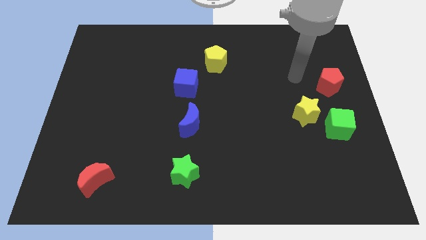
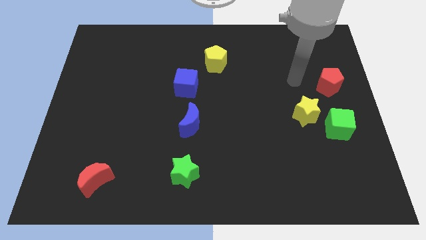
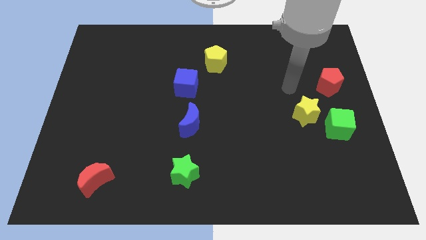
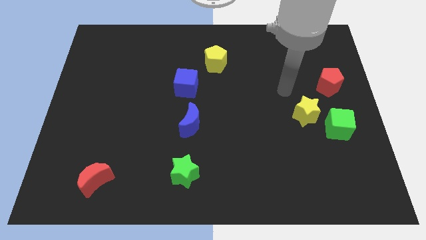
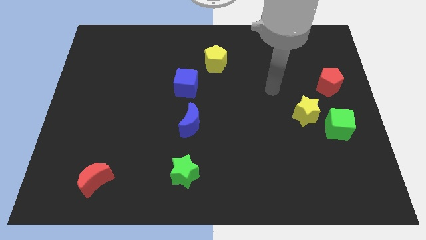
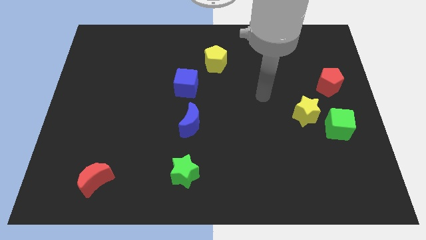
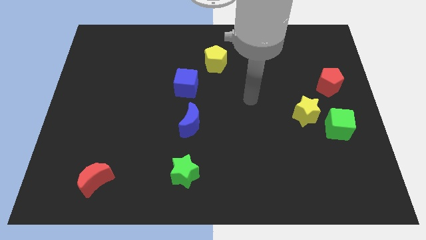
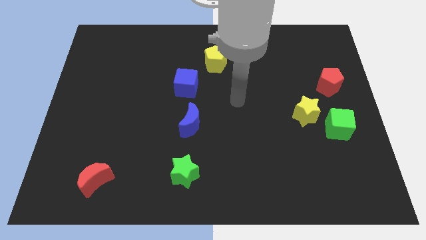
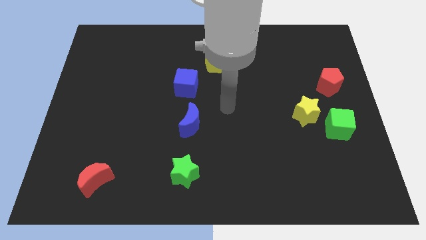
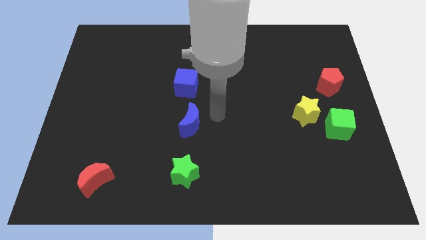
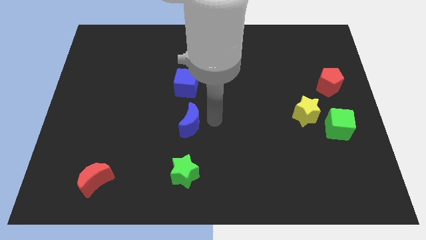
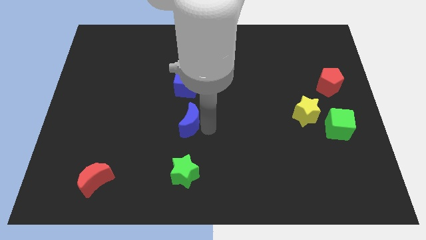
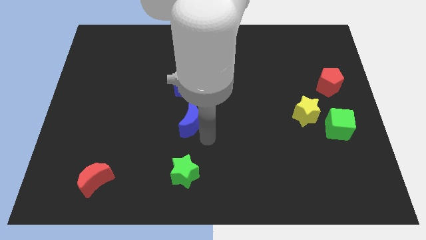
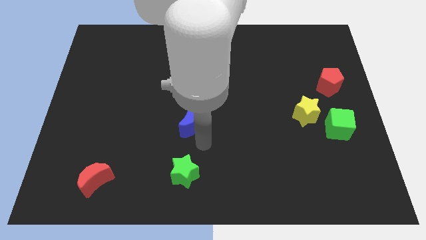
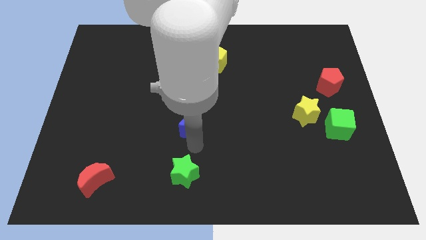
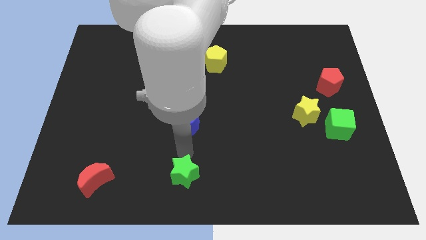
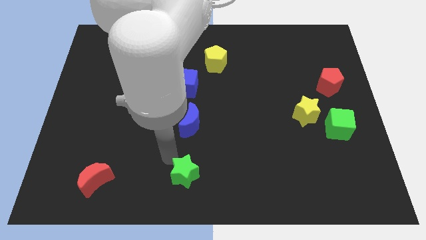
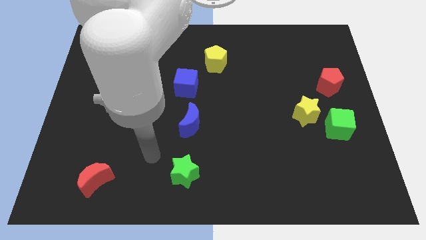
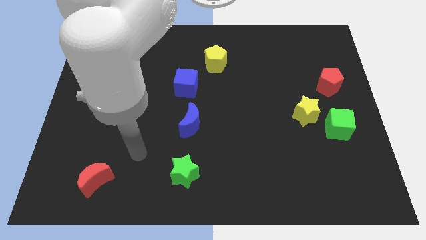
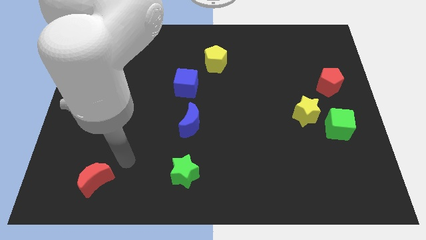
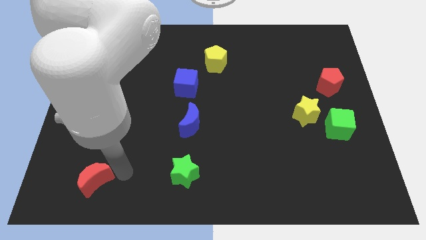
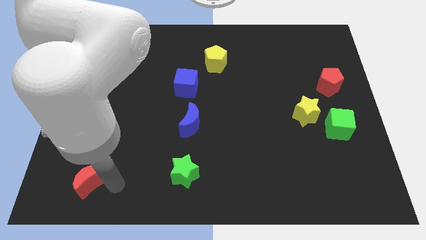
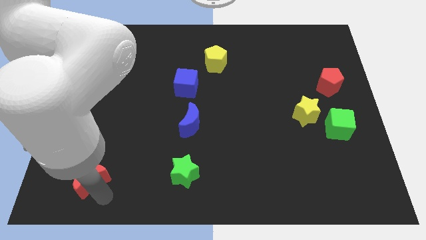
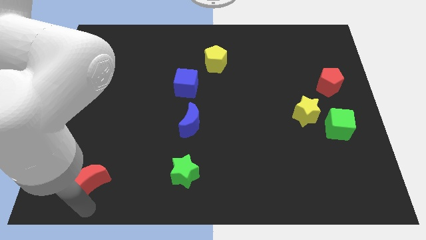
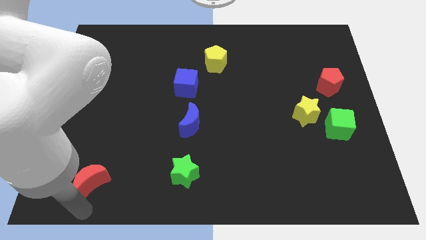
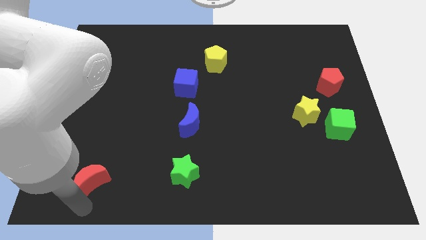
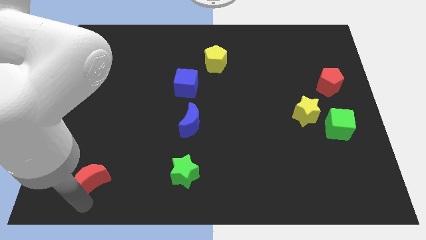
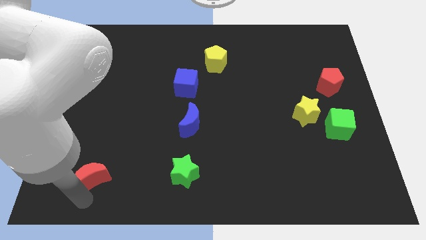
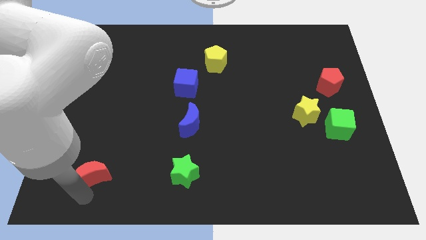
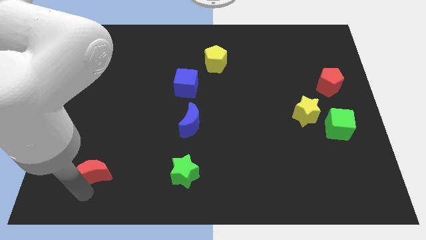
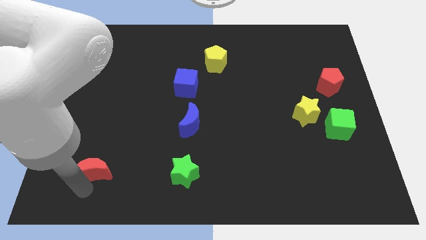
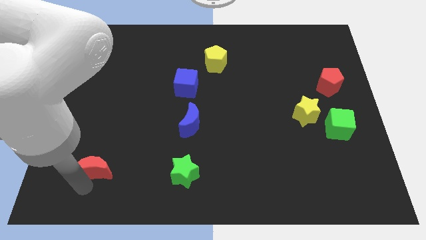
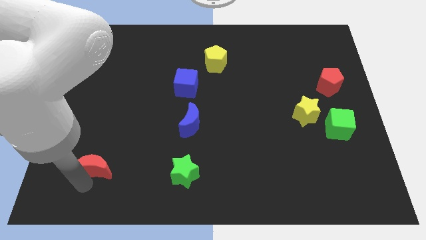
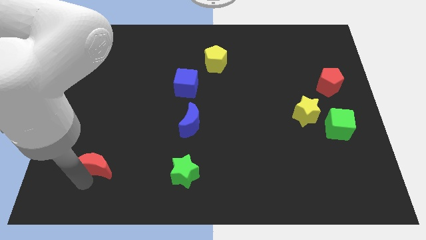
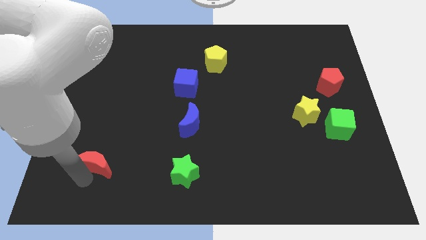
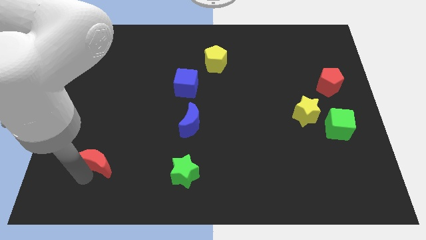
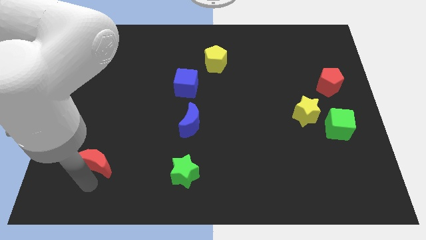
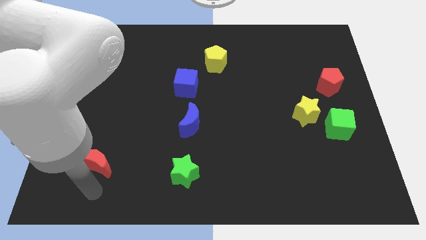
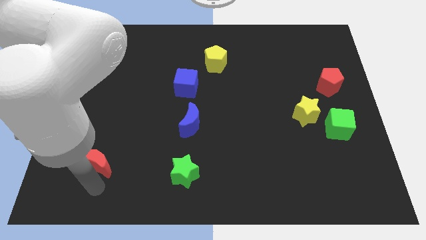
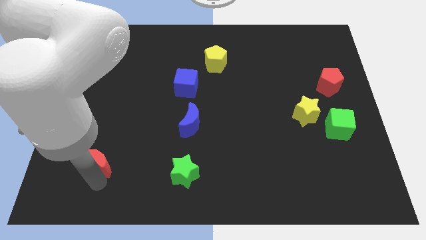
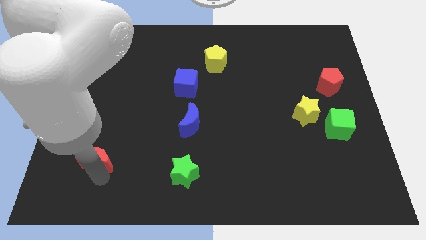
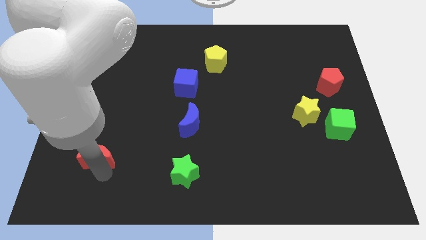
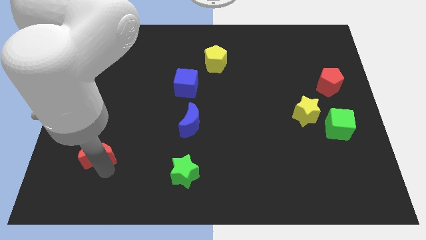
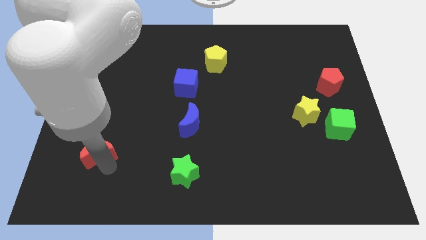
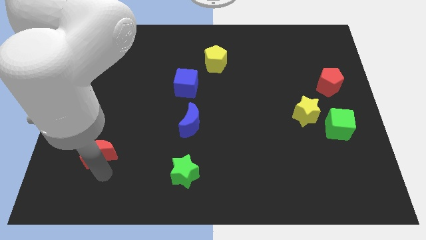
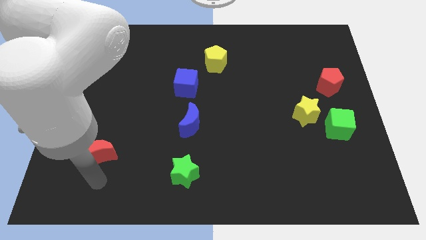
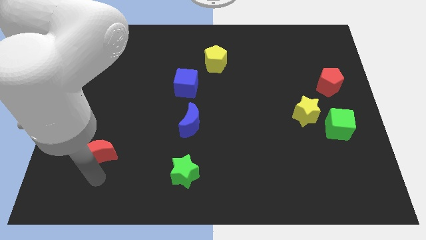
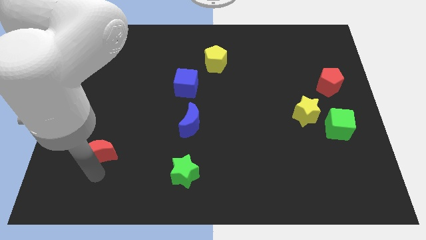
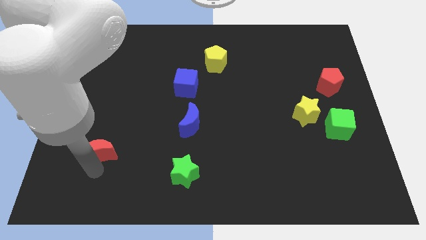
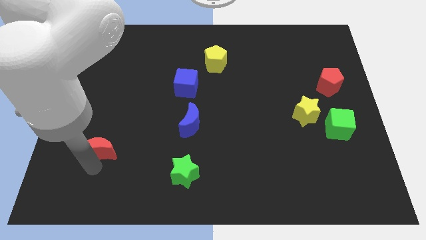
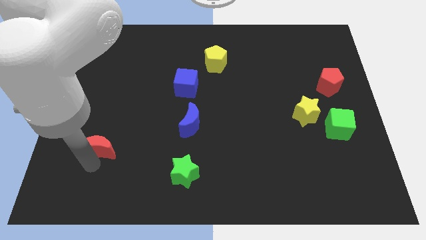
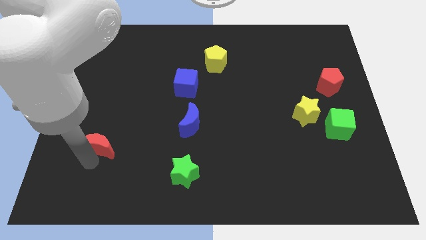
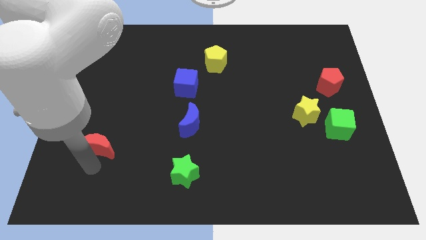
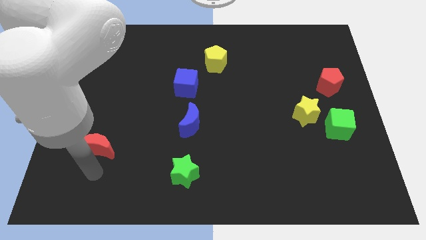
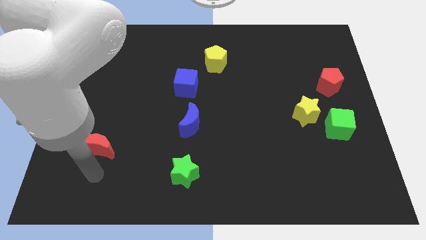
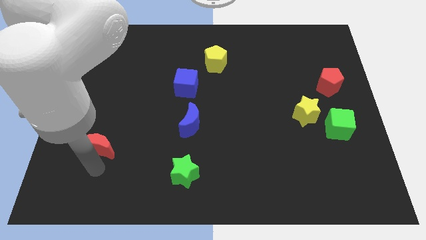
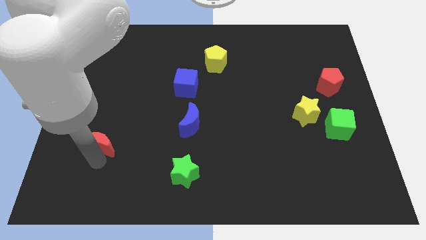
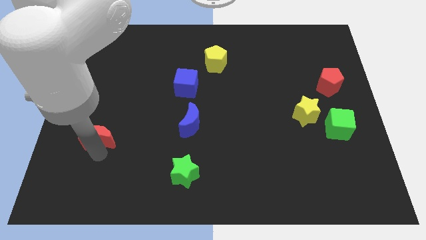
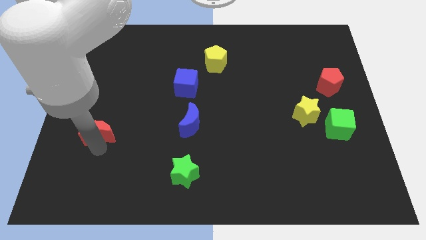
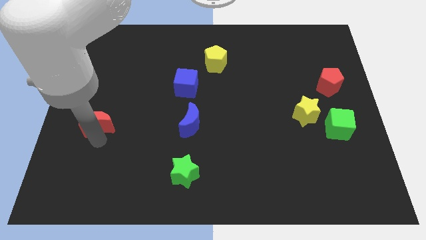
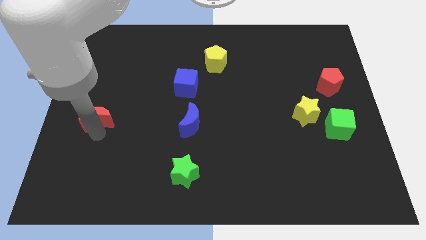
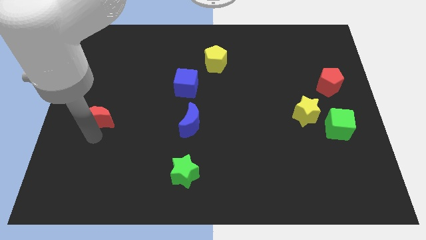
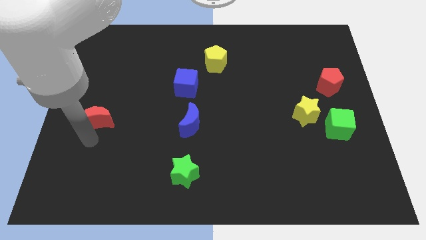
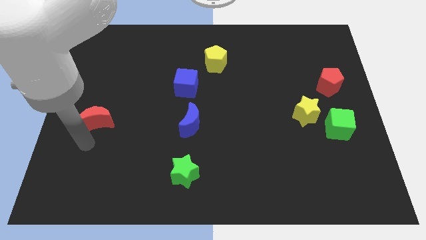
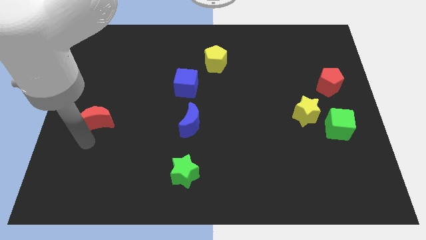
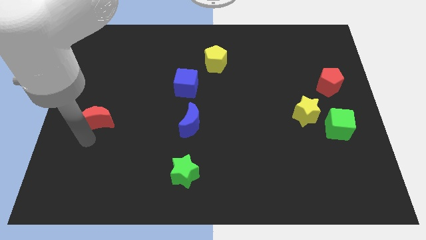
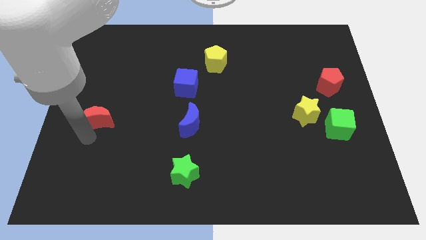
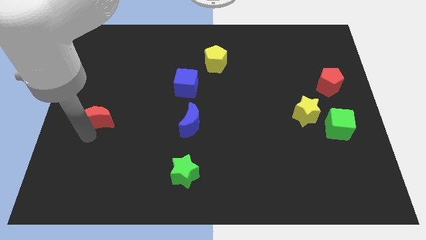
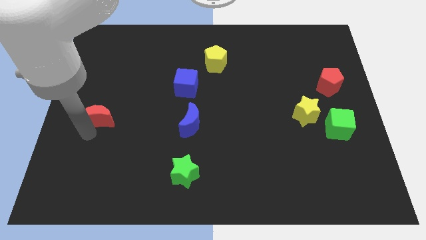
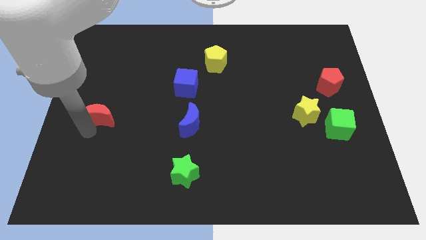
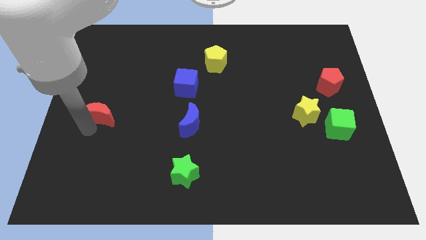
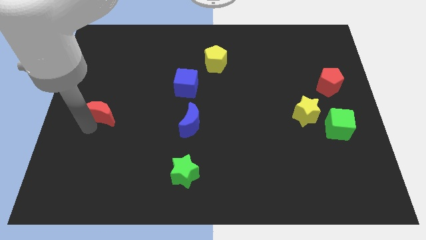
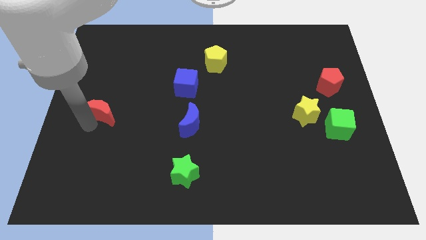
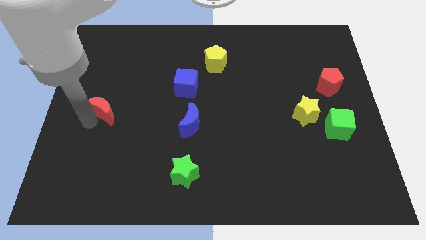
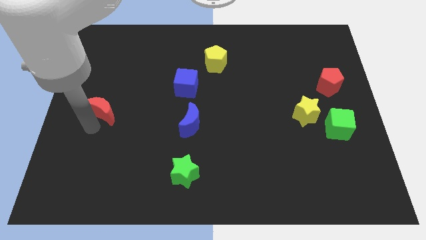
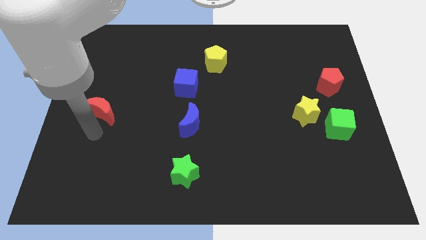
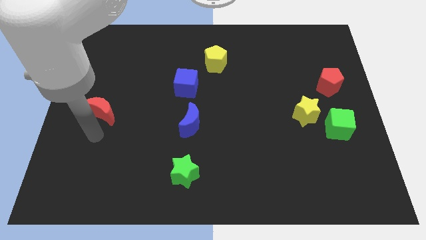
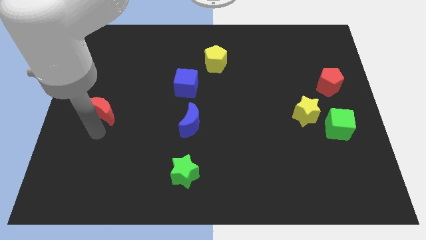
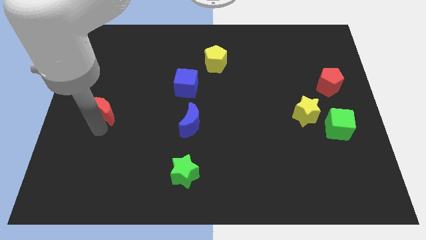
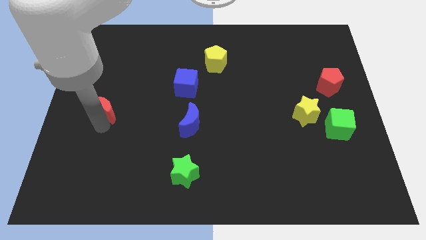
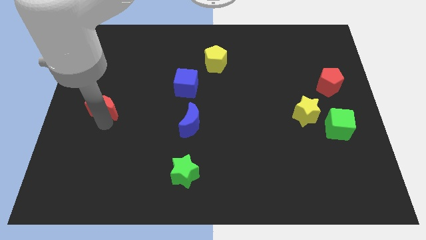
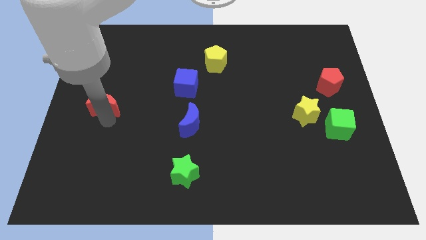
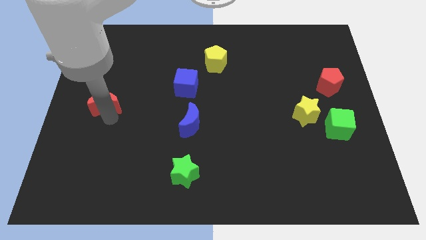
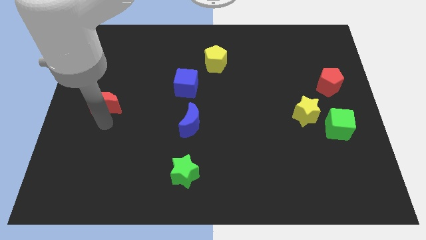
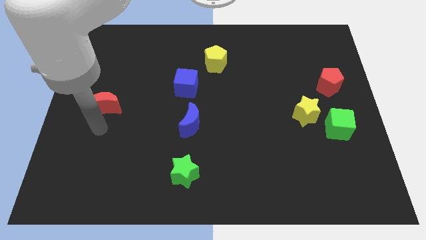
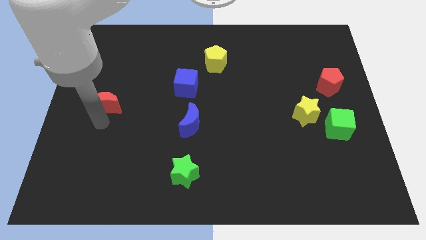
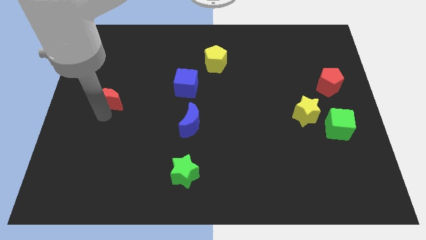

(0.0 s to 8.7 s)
slide the red moon upwards
